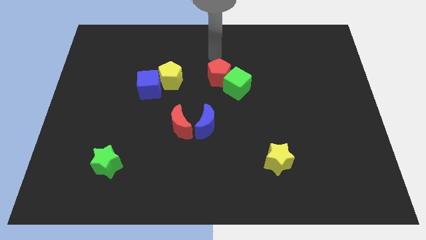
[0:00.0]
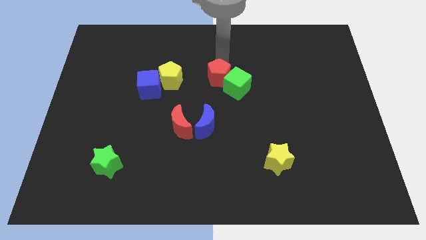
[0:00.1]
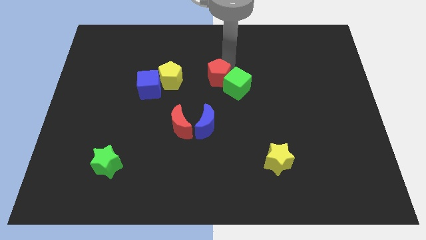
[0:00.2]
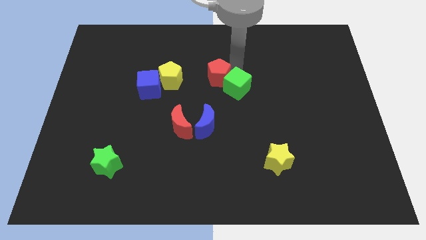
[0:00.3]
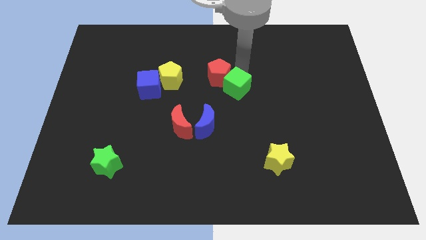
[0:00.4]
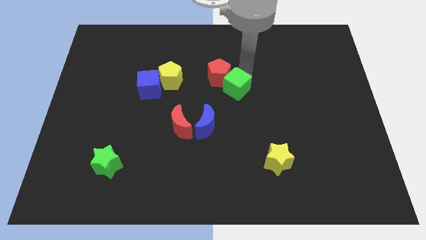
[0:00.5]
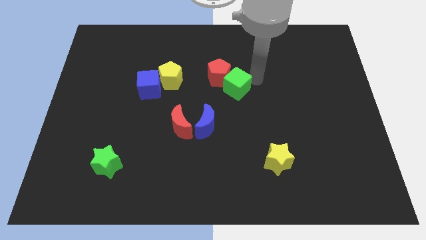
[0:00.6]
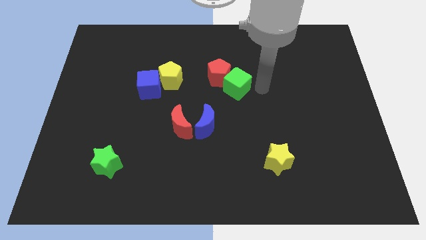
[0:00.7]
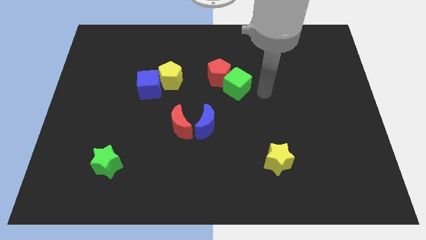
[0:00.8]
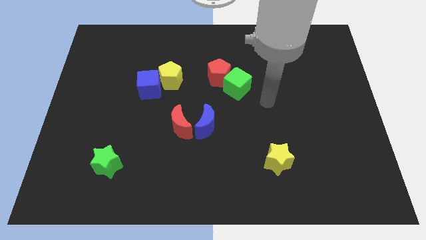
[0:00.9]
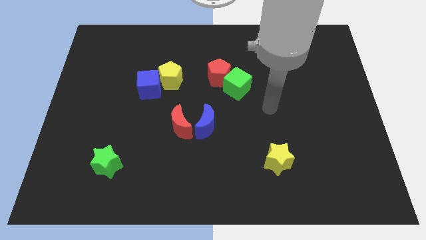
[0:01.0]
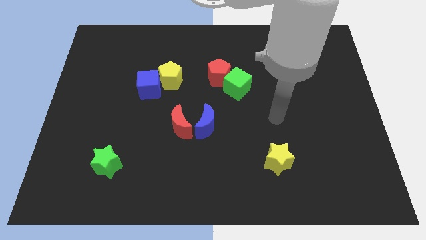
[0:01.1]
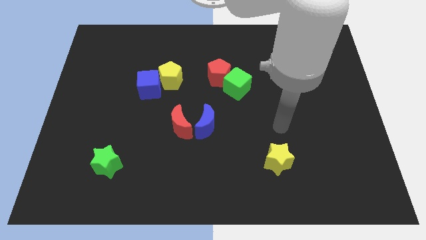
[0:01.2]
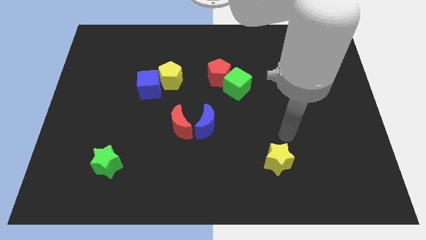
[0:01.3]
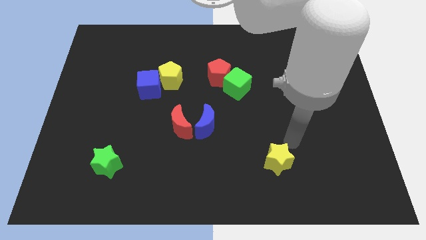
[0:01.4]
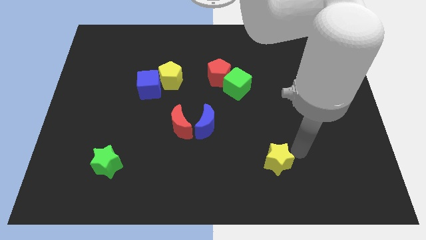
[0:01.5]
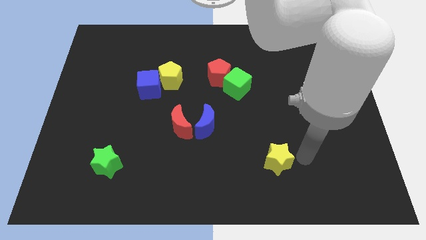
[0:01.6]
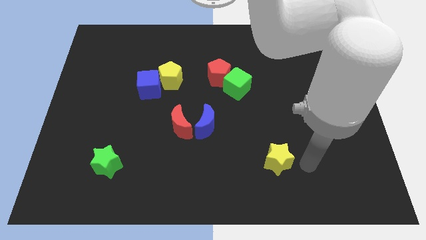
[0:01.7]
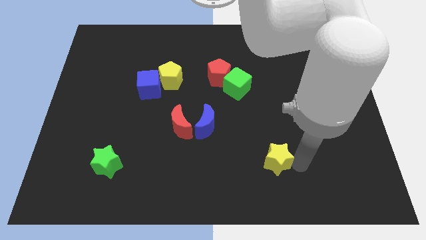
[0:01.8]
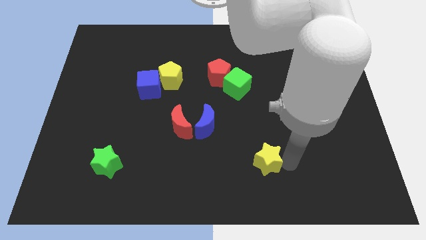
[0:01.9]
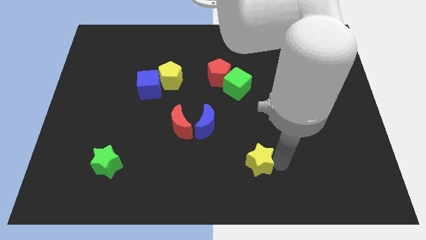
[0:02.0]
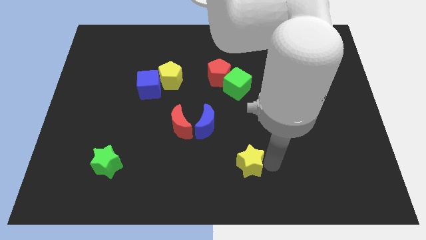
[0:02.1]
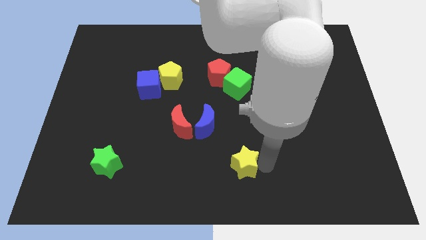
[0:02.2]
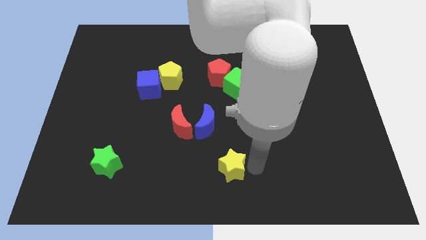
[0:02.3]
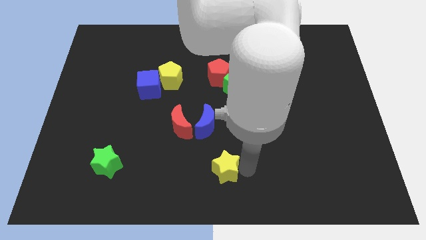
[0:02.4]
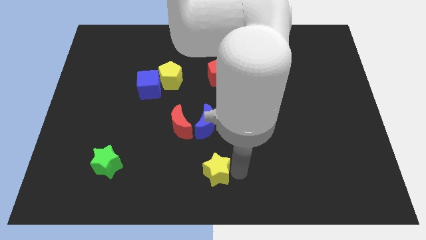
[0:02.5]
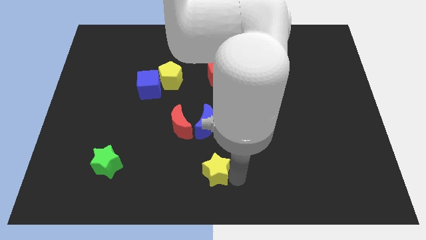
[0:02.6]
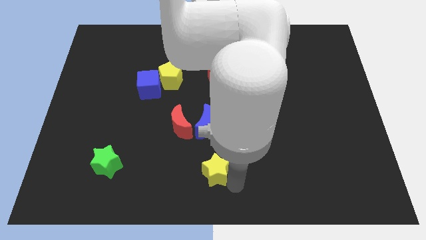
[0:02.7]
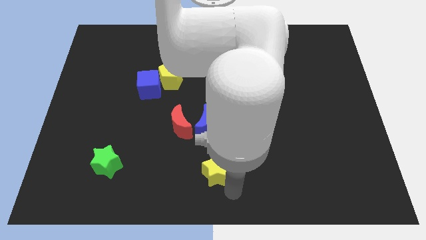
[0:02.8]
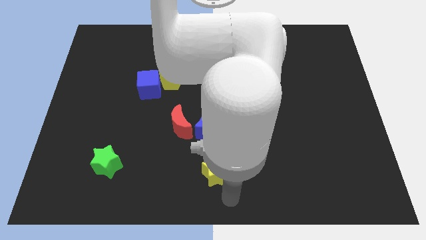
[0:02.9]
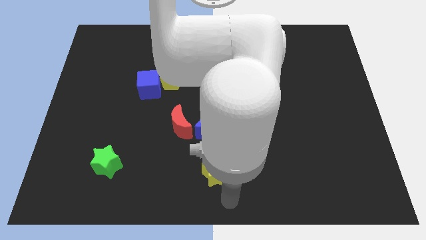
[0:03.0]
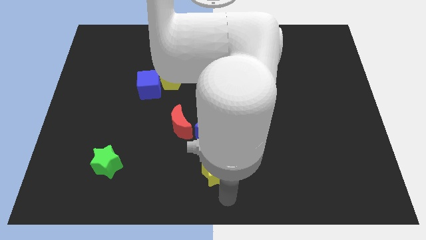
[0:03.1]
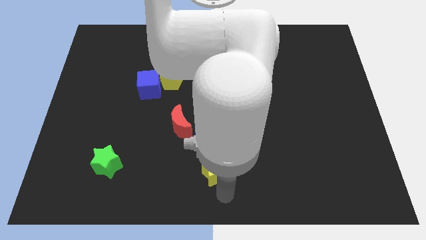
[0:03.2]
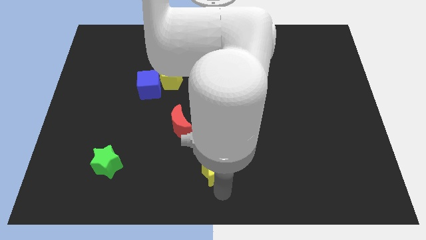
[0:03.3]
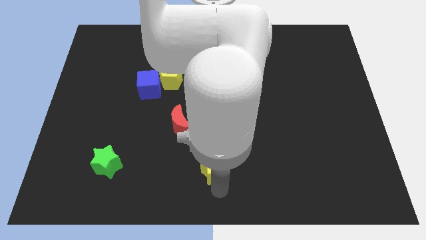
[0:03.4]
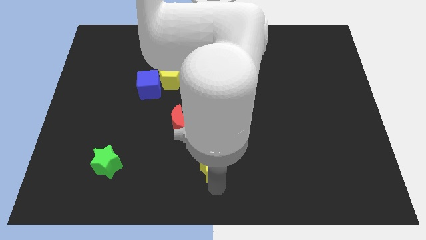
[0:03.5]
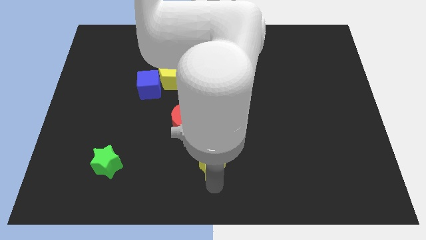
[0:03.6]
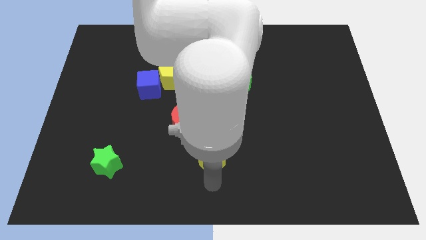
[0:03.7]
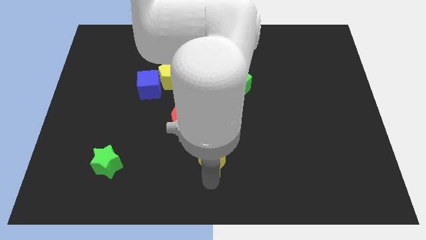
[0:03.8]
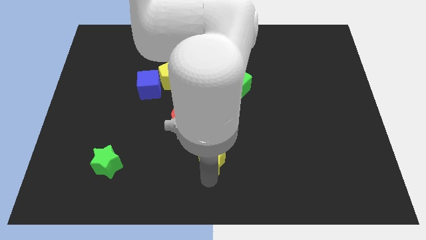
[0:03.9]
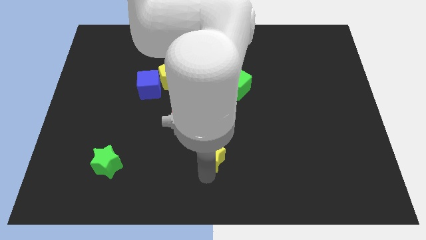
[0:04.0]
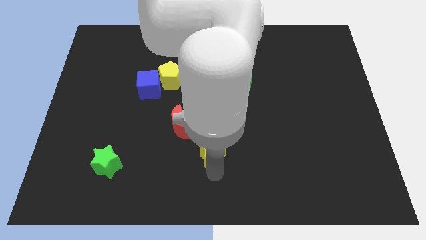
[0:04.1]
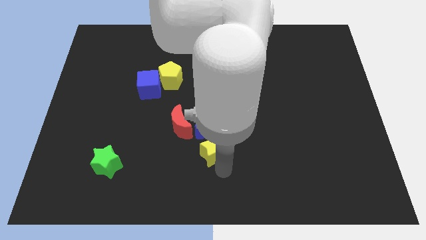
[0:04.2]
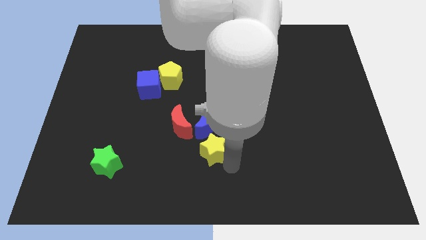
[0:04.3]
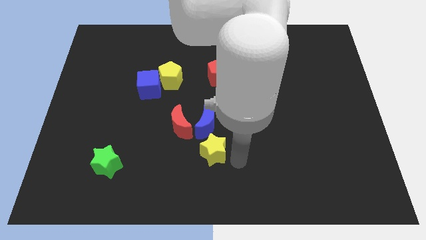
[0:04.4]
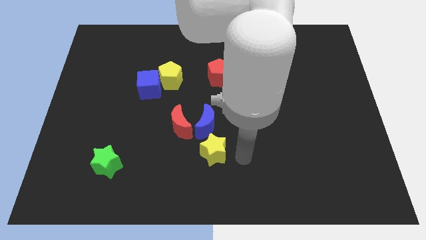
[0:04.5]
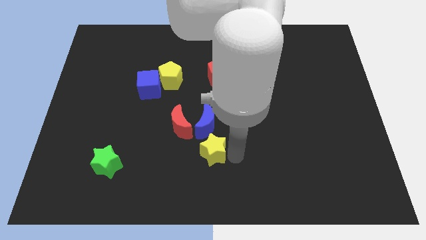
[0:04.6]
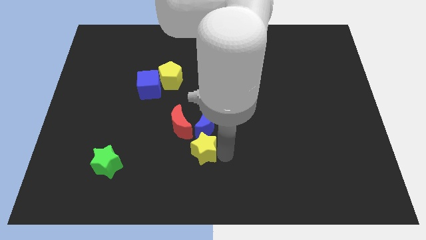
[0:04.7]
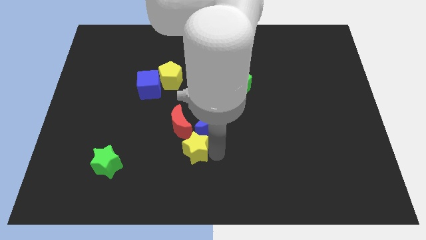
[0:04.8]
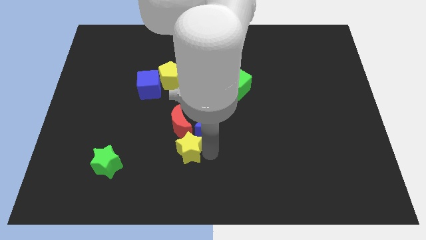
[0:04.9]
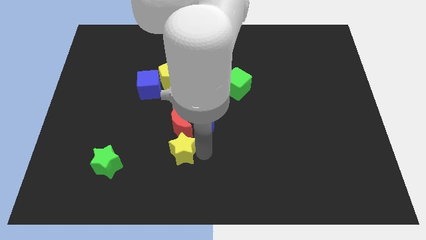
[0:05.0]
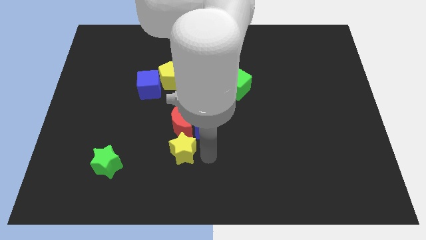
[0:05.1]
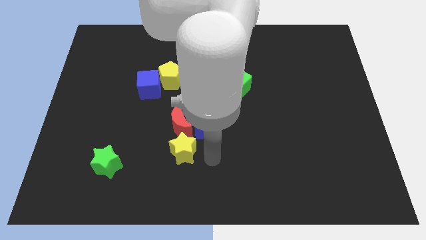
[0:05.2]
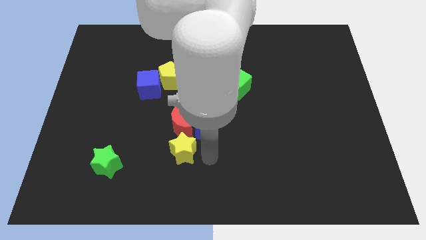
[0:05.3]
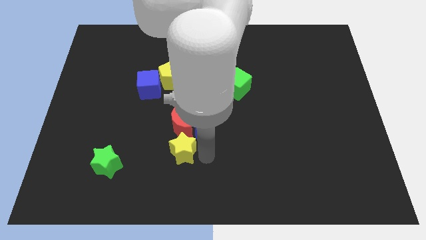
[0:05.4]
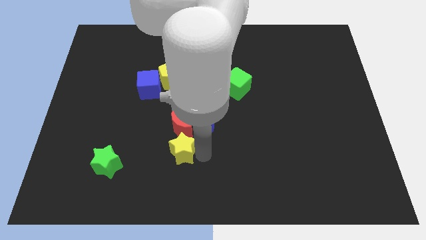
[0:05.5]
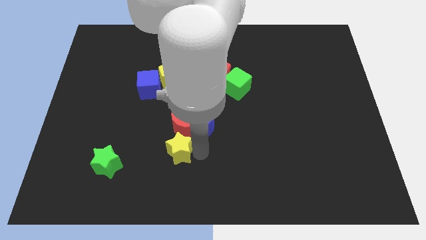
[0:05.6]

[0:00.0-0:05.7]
put the yellow star to the bottom left of the red moon

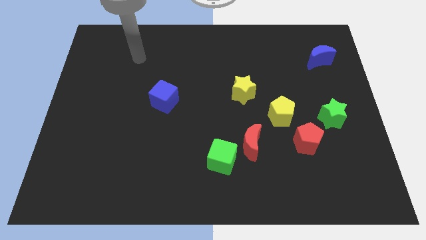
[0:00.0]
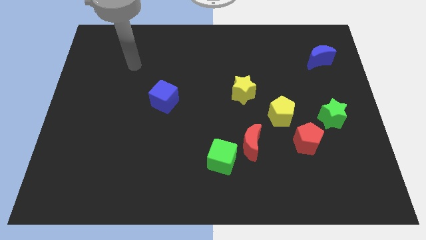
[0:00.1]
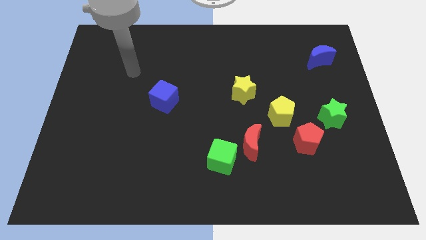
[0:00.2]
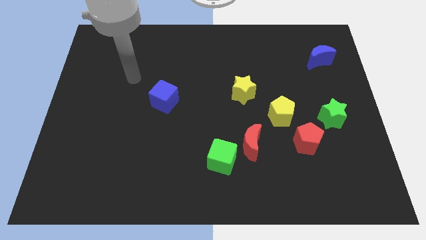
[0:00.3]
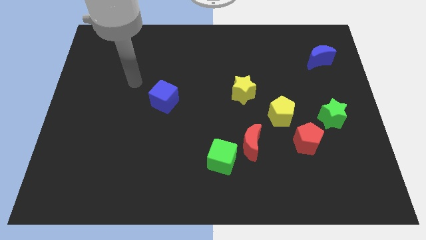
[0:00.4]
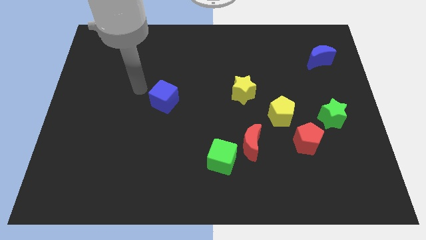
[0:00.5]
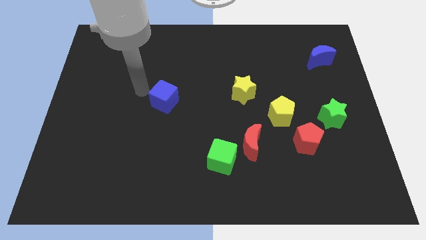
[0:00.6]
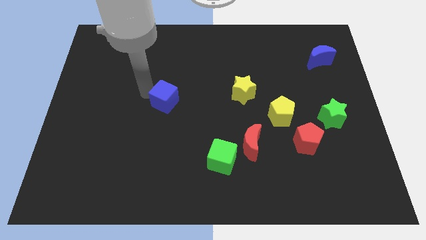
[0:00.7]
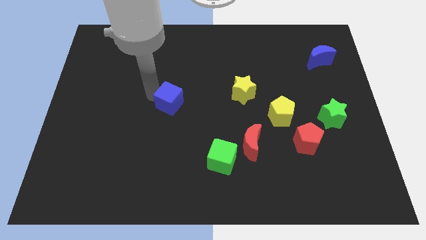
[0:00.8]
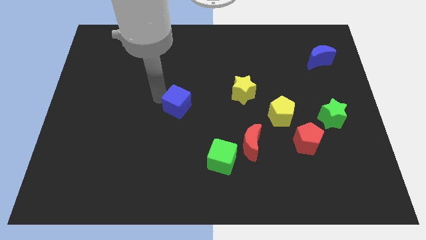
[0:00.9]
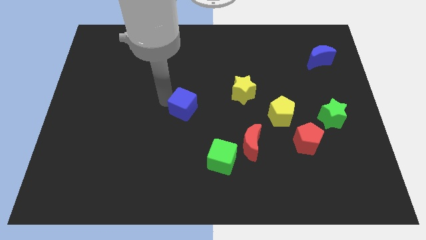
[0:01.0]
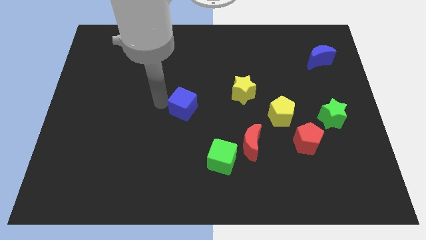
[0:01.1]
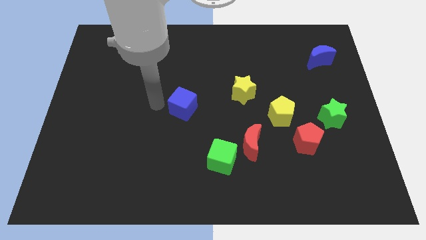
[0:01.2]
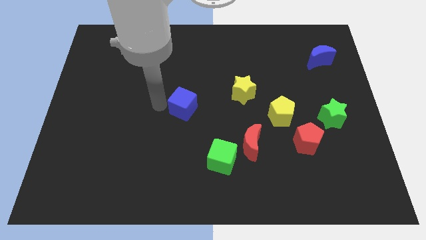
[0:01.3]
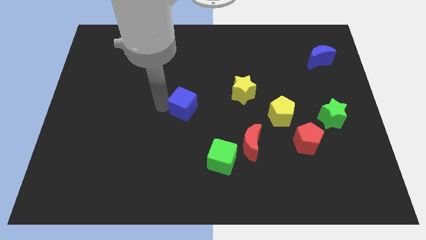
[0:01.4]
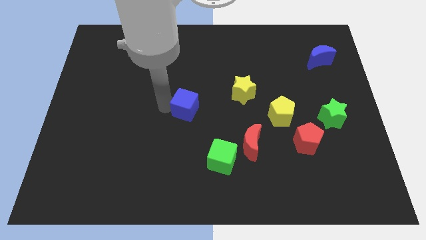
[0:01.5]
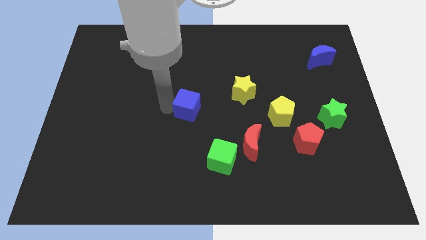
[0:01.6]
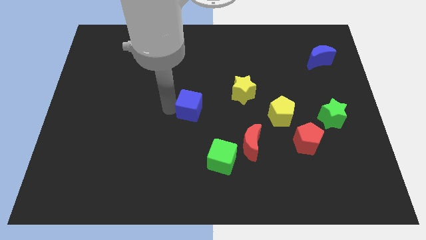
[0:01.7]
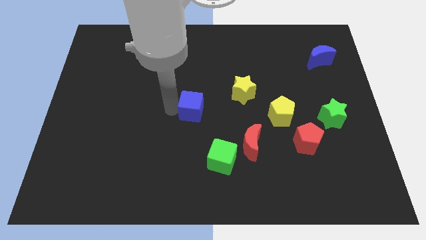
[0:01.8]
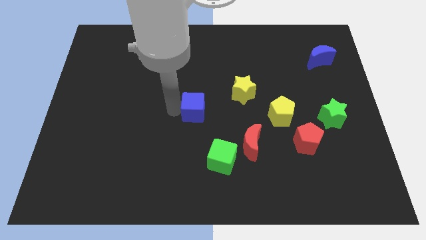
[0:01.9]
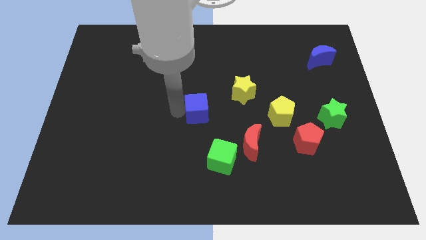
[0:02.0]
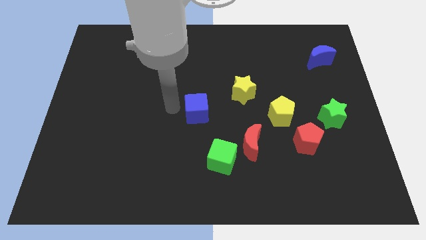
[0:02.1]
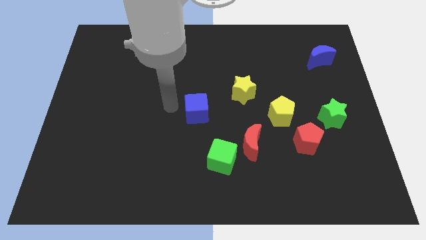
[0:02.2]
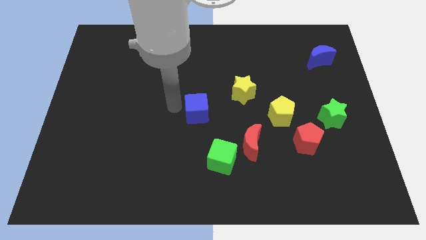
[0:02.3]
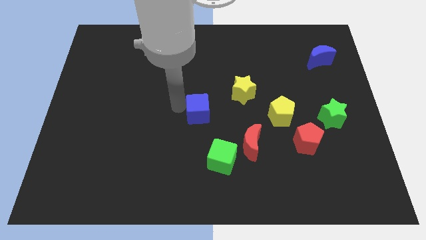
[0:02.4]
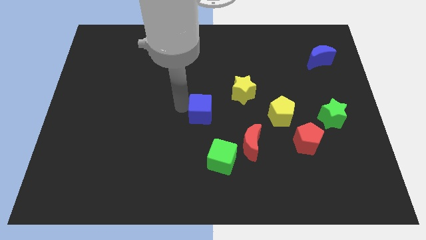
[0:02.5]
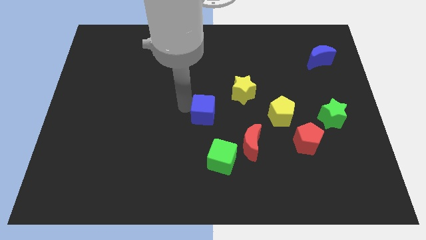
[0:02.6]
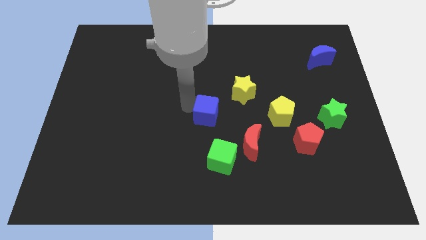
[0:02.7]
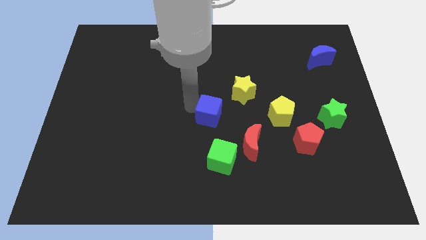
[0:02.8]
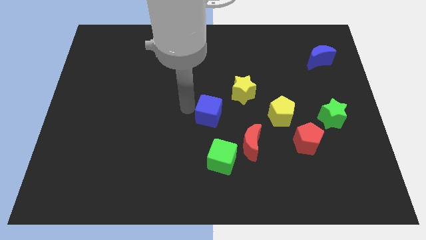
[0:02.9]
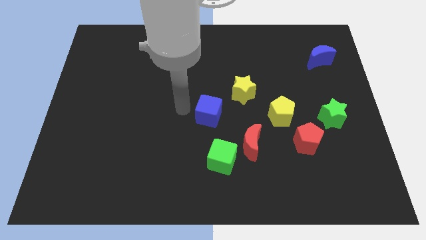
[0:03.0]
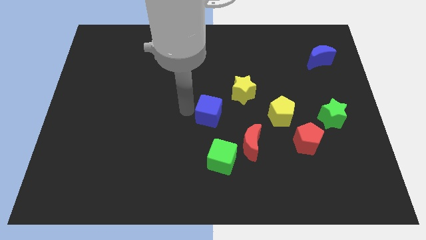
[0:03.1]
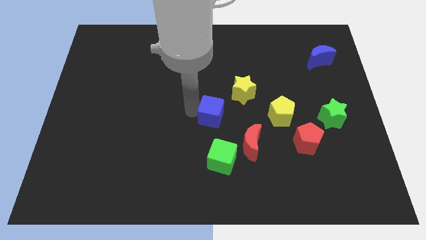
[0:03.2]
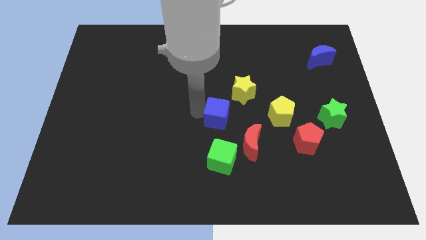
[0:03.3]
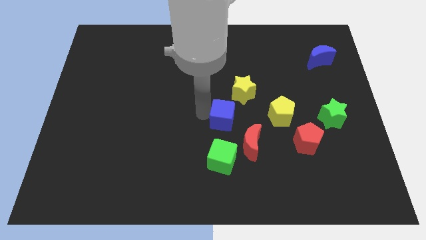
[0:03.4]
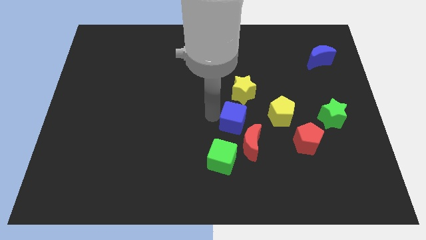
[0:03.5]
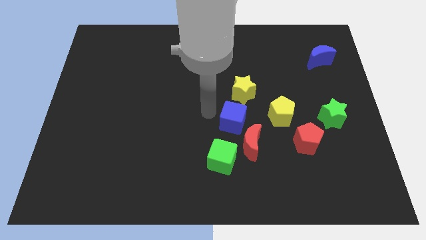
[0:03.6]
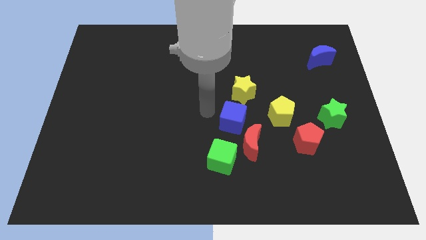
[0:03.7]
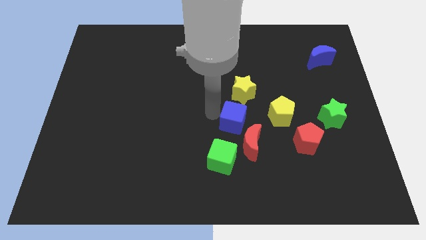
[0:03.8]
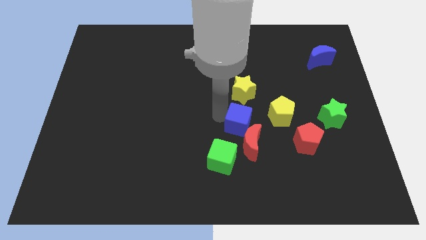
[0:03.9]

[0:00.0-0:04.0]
move the blue cube diagonally up and to the right of the green cube
